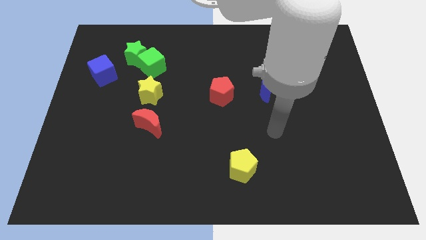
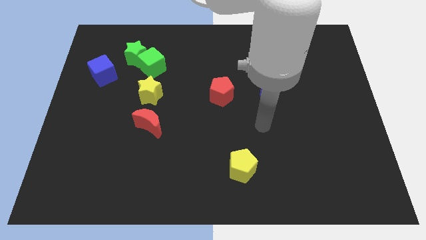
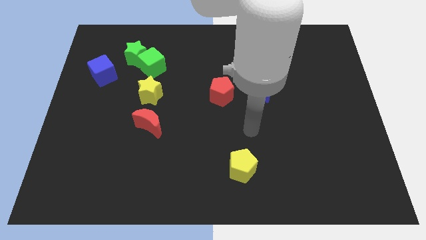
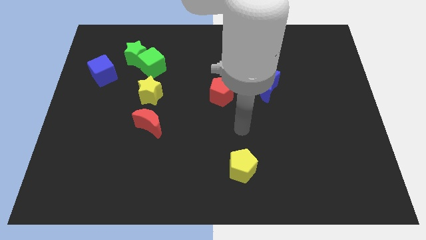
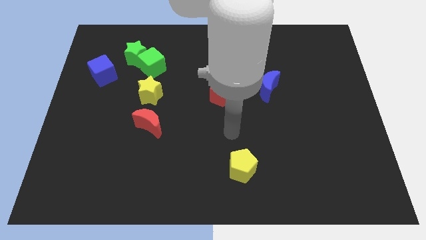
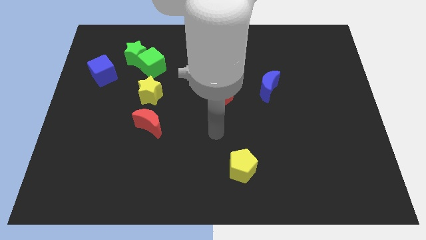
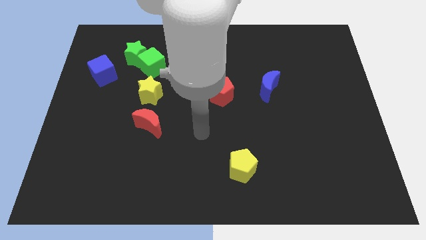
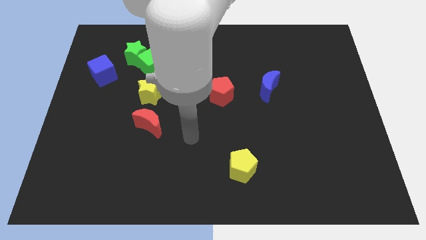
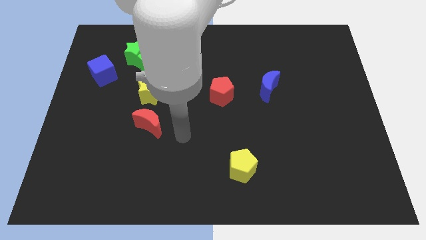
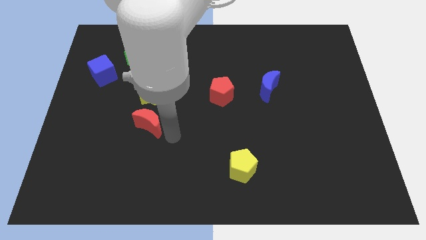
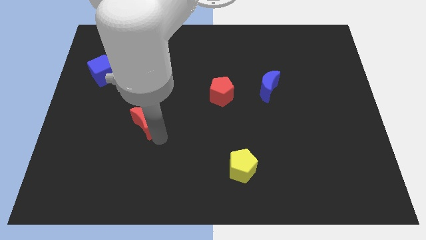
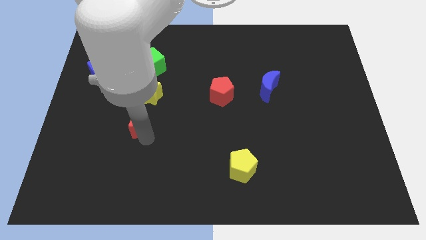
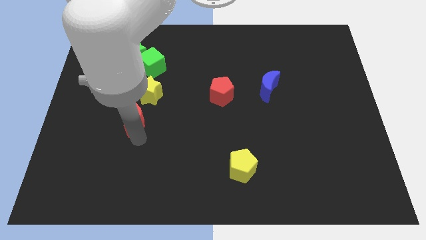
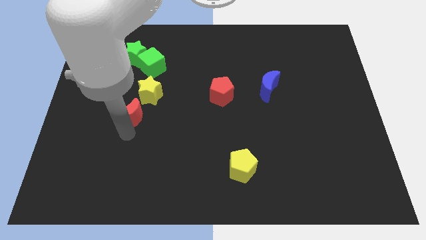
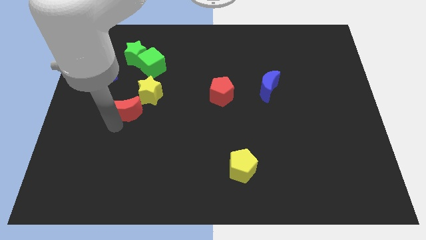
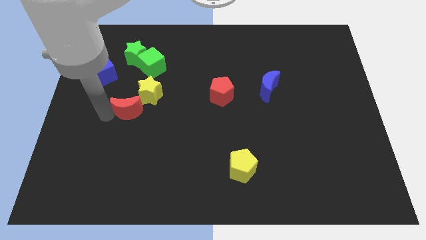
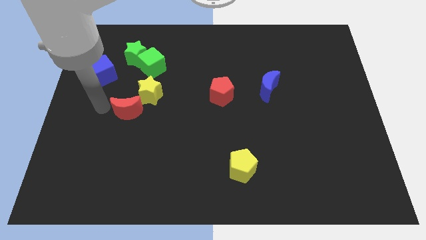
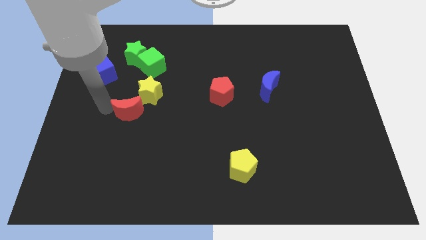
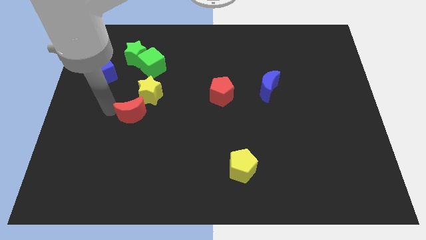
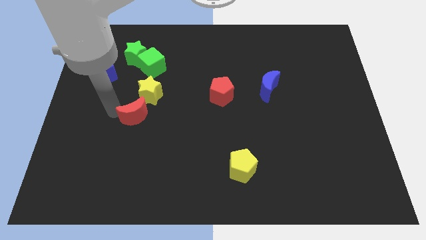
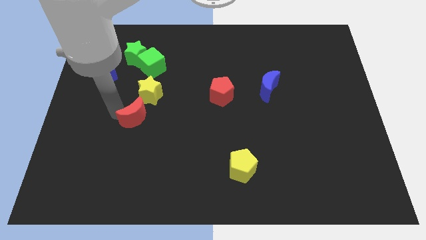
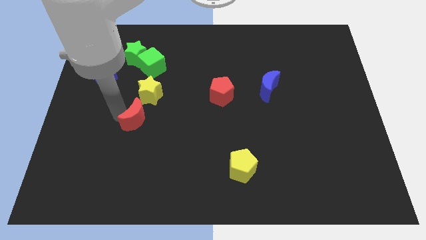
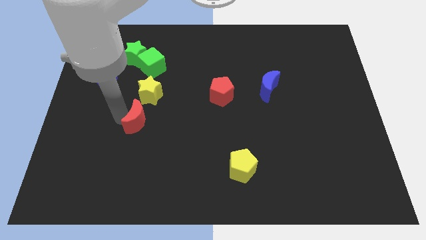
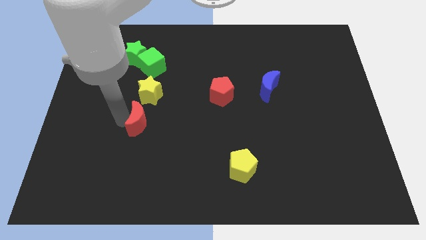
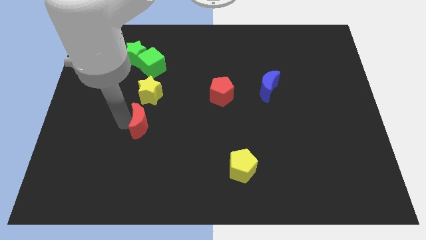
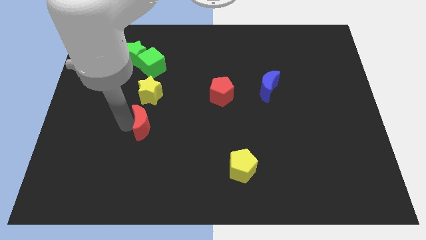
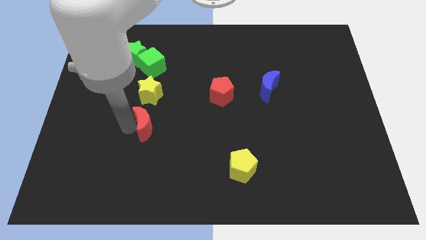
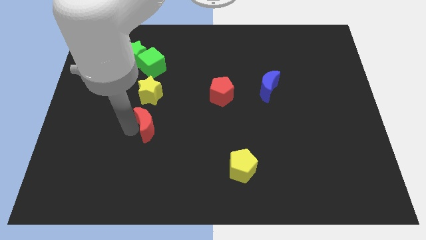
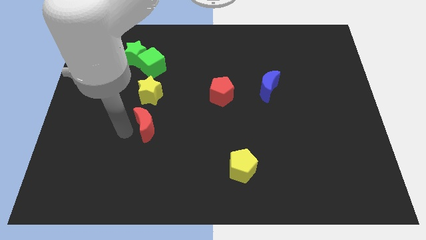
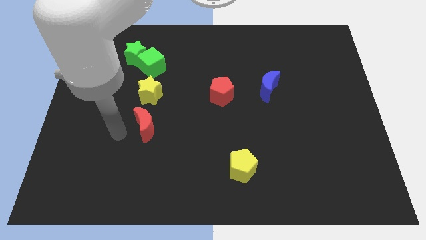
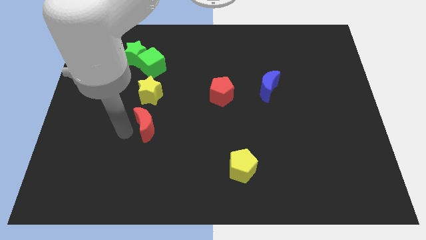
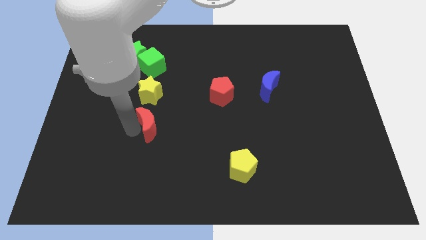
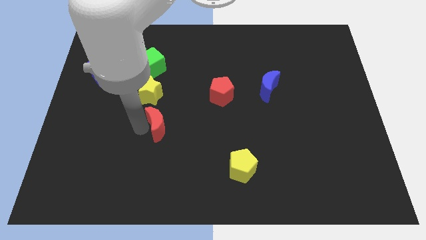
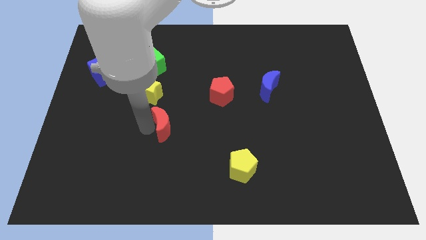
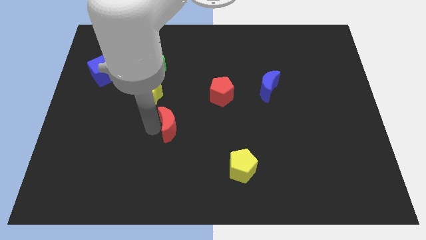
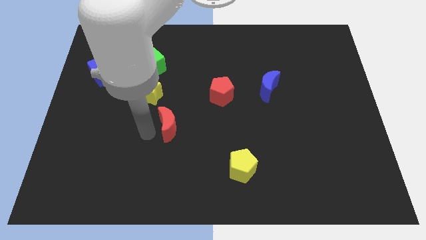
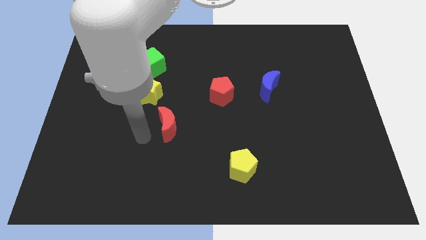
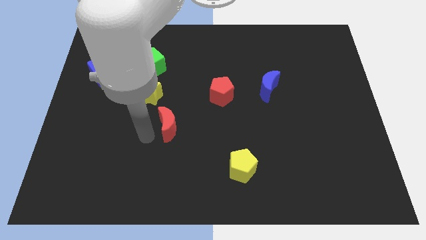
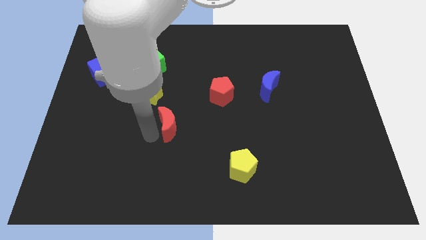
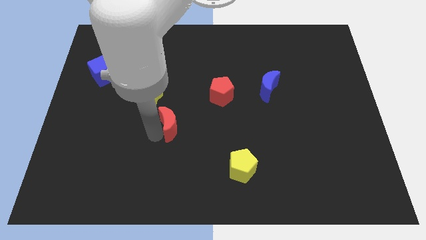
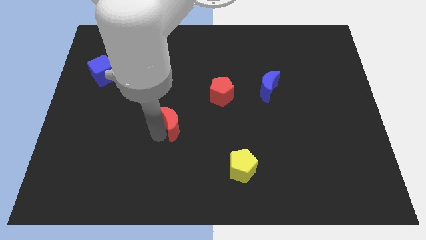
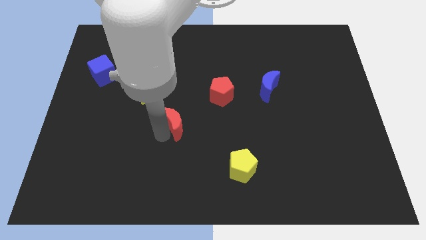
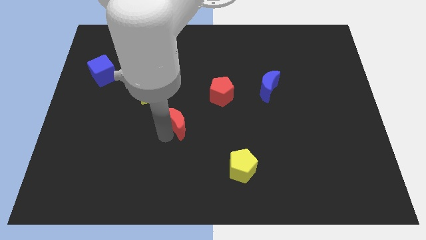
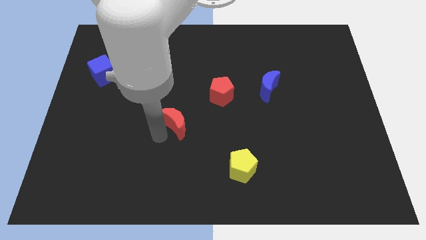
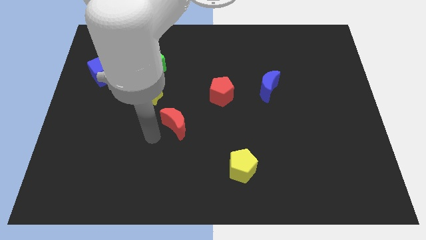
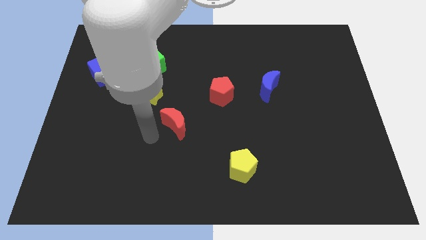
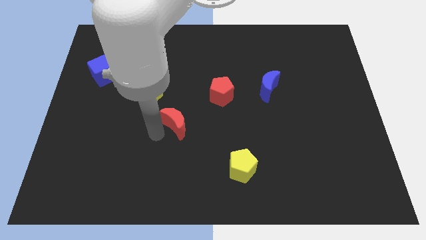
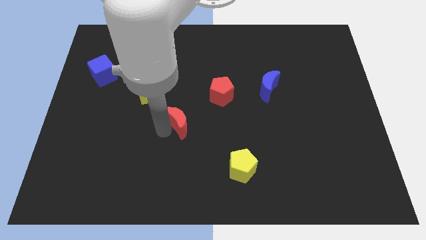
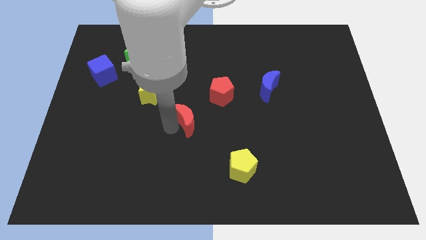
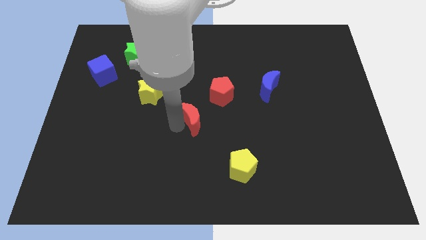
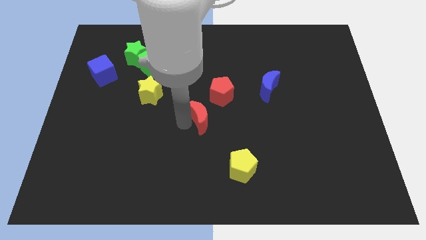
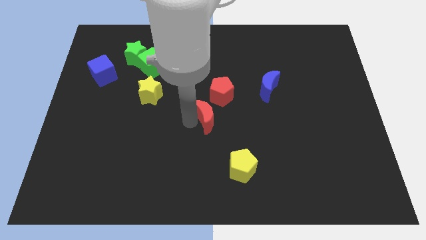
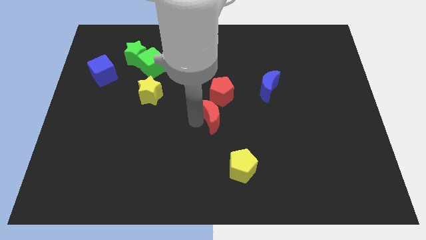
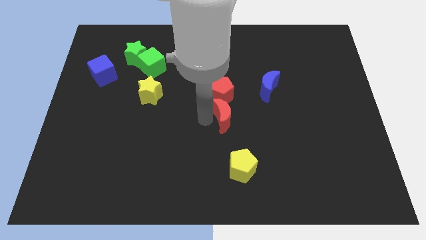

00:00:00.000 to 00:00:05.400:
put the red moon diagonally down and to the right of the red pentagon

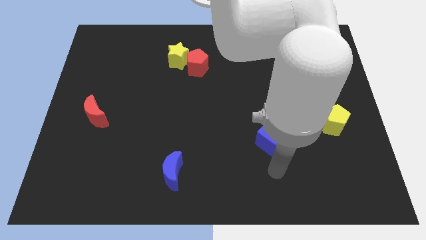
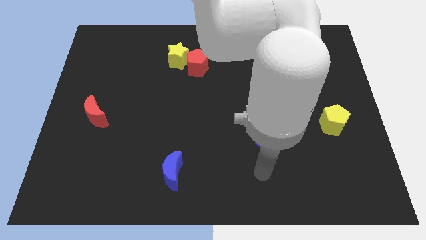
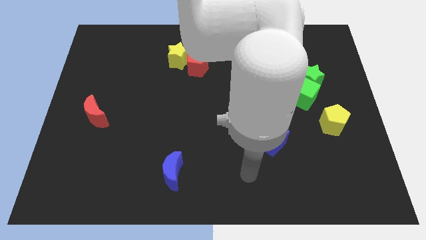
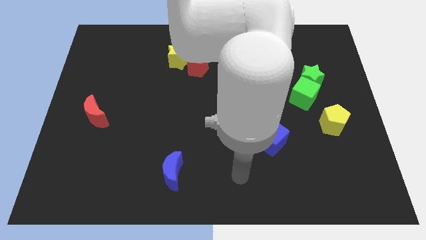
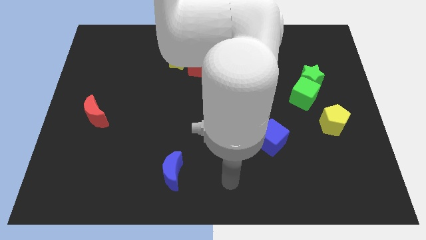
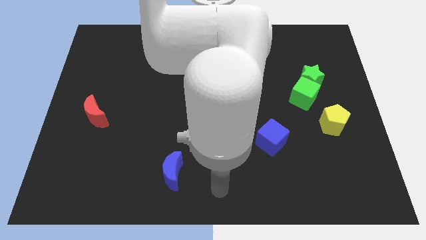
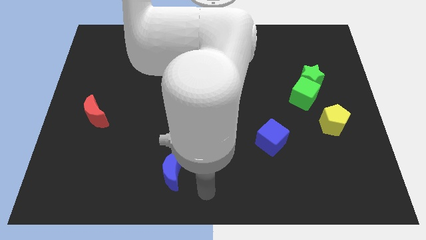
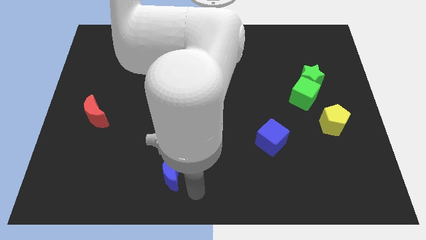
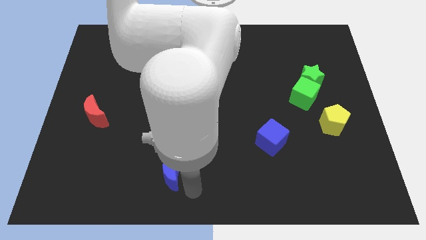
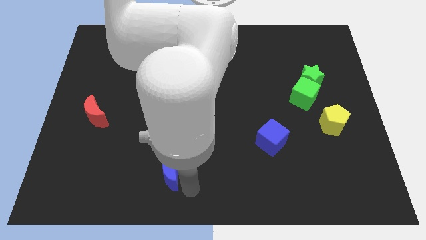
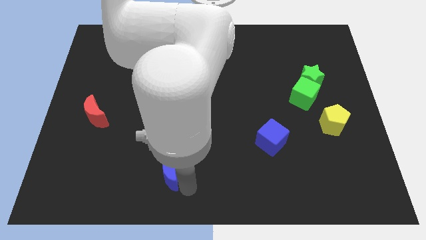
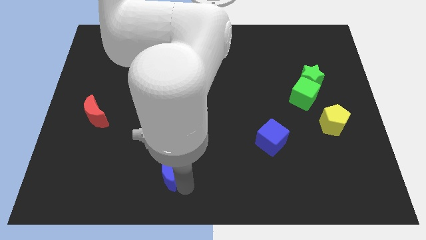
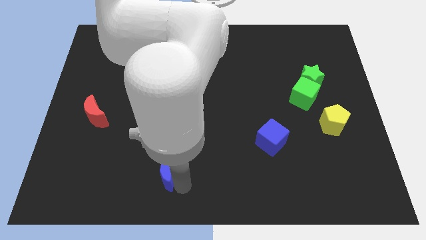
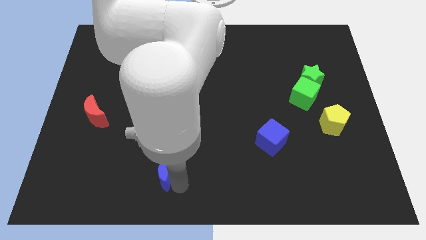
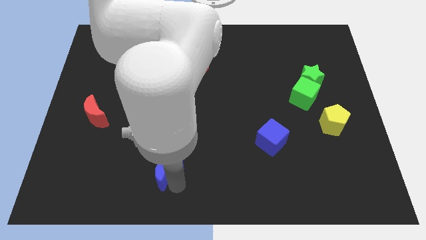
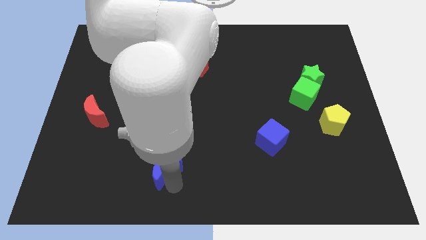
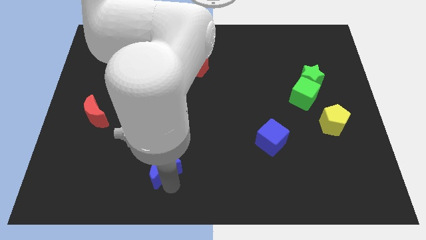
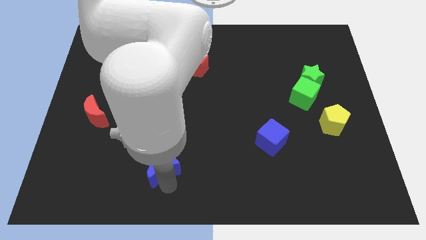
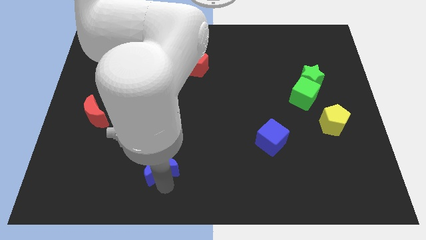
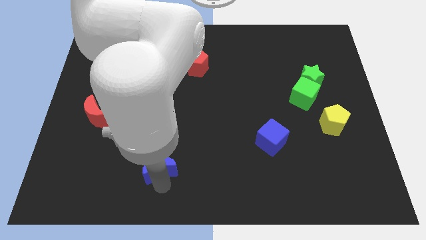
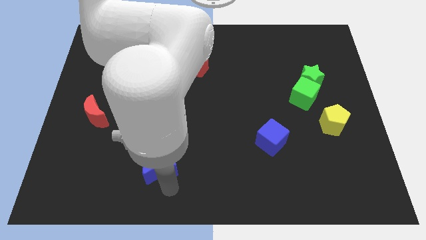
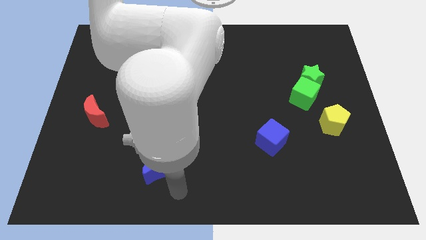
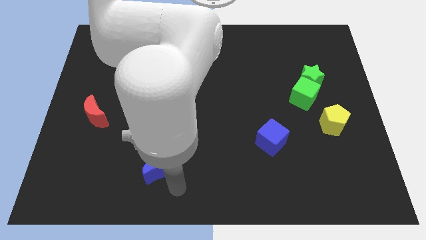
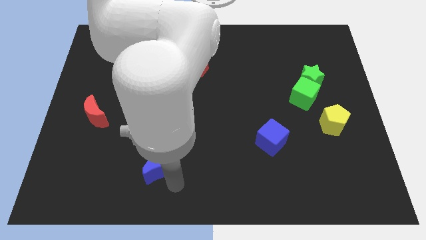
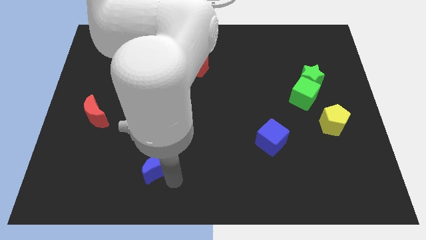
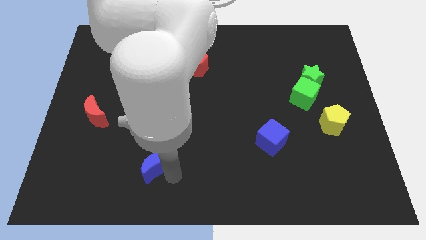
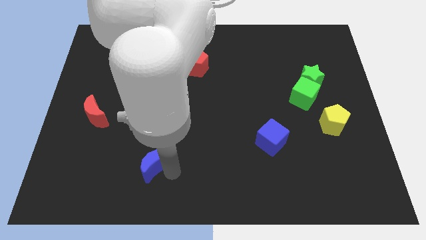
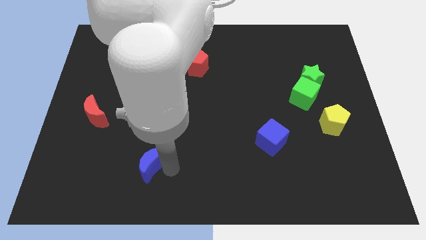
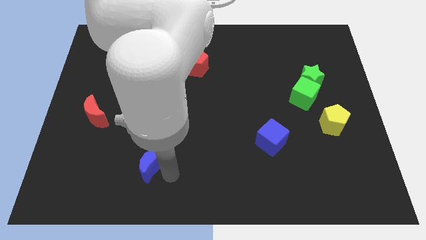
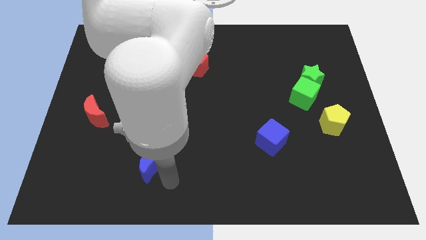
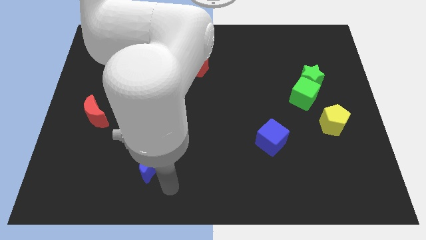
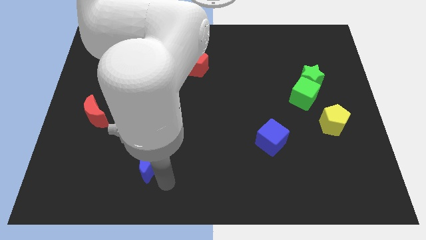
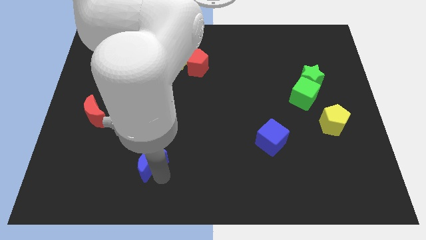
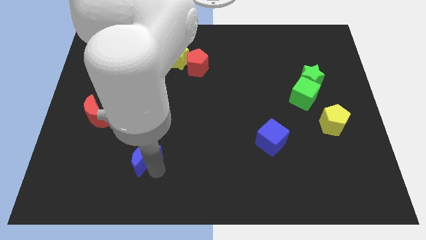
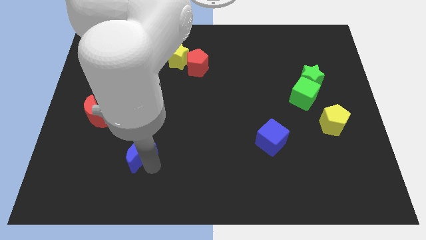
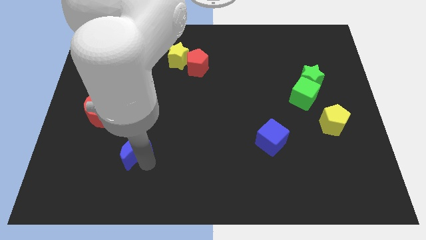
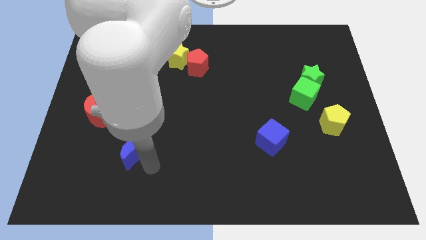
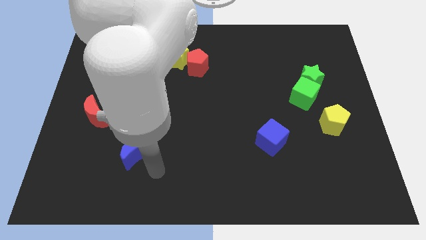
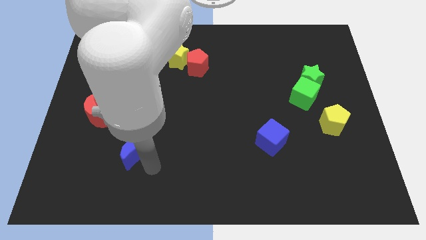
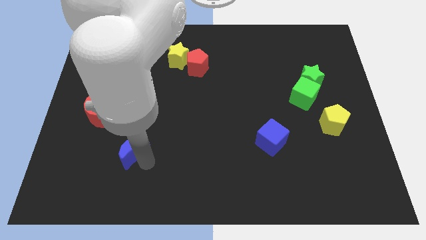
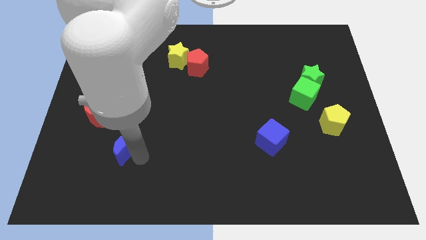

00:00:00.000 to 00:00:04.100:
put the blue moon to the bottom right side of the red moon
